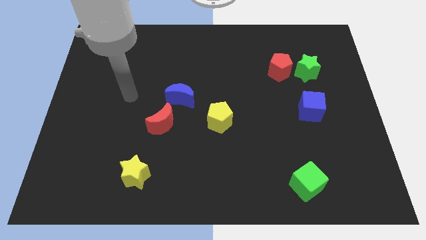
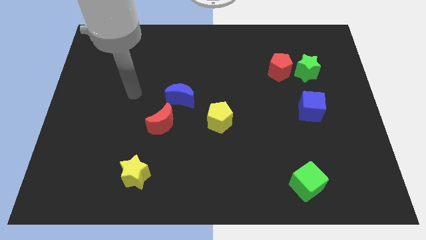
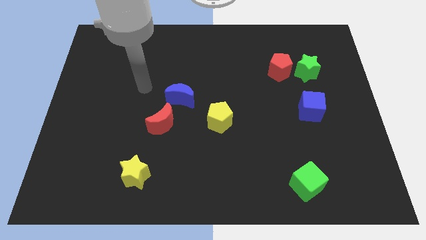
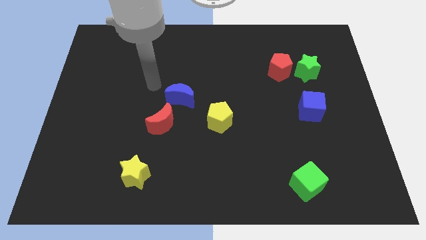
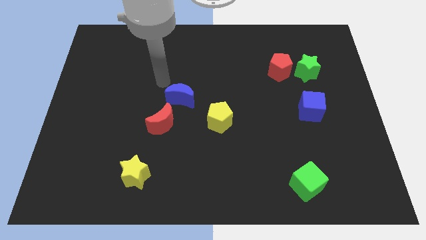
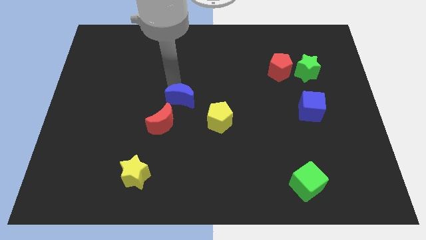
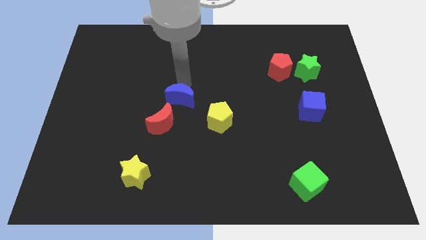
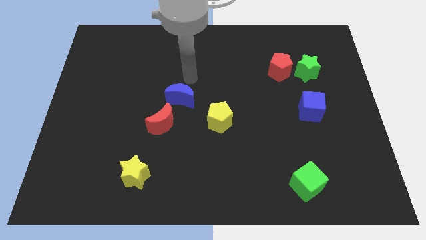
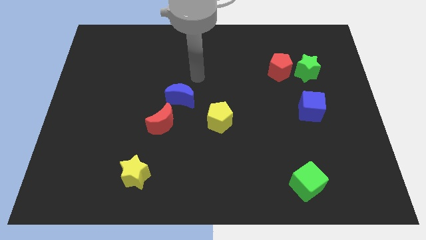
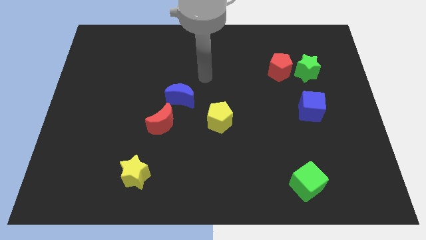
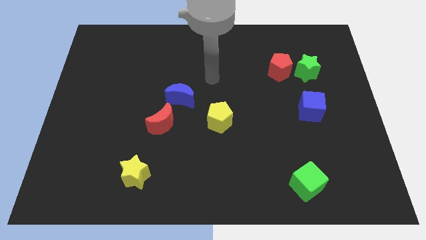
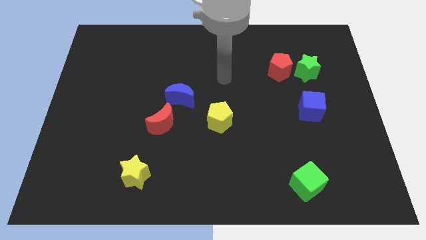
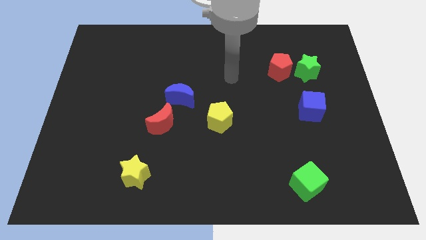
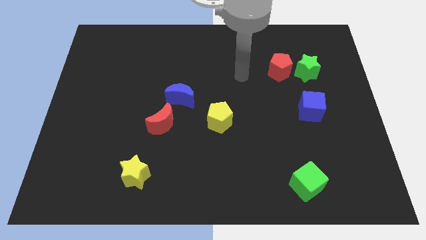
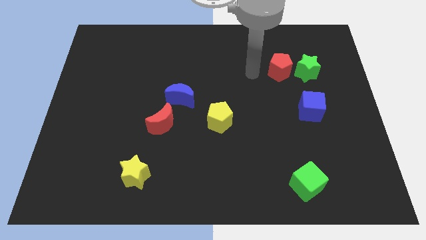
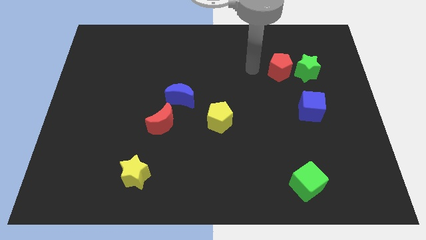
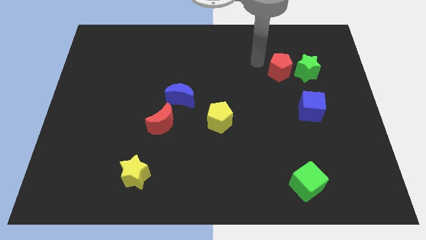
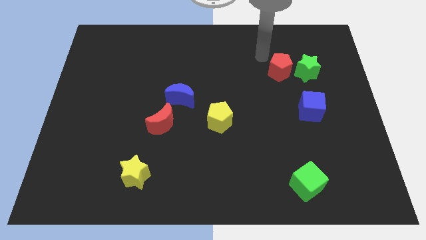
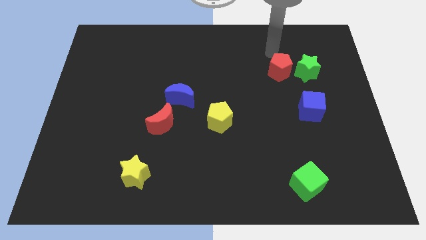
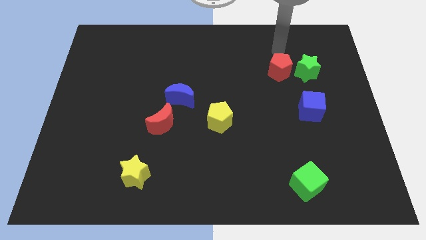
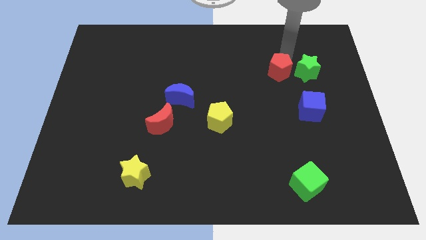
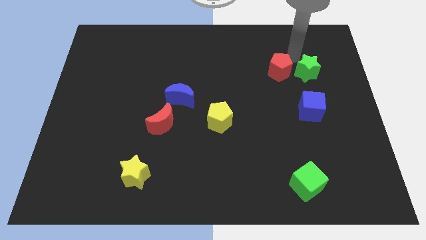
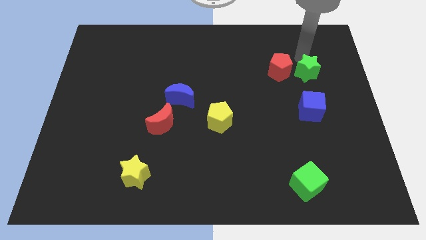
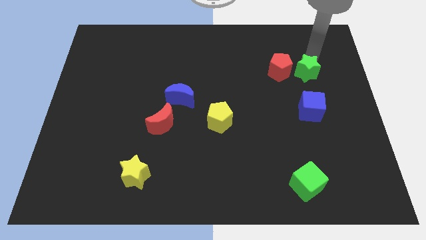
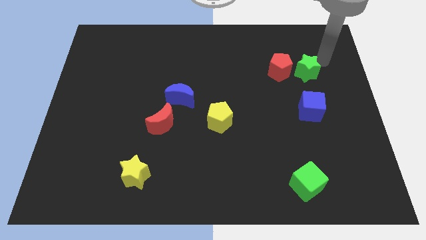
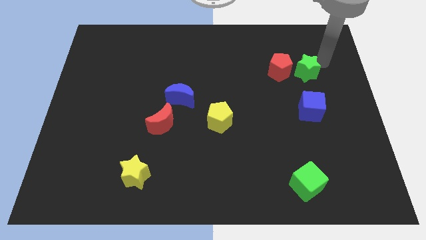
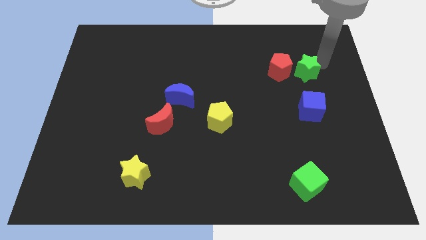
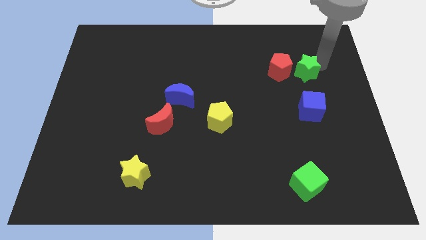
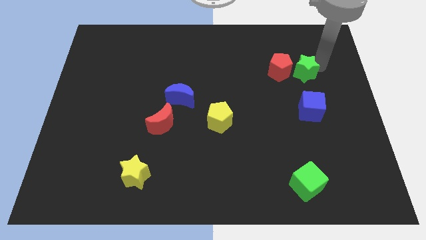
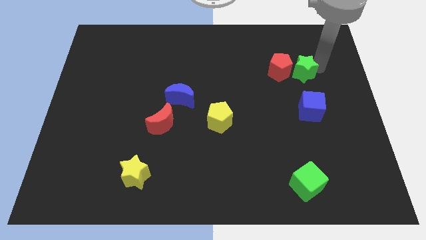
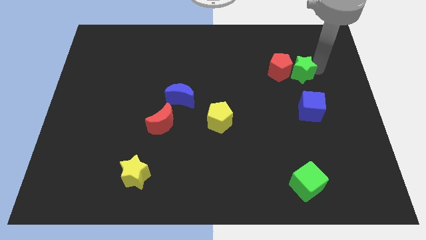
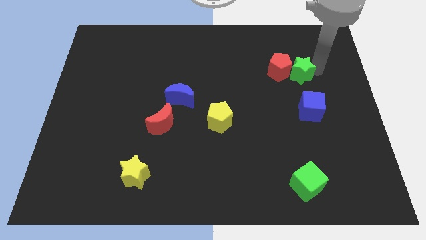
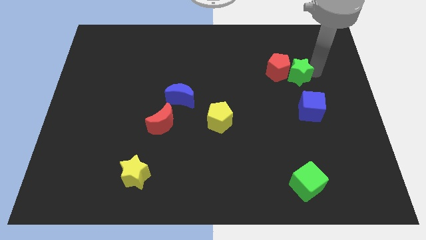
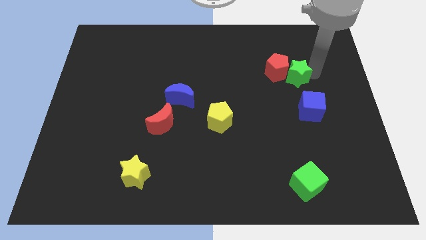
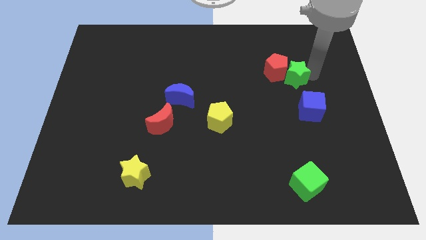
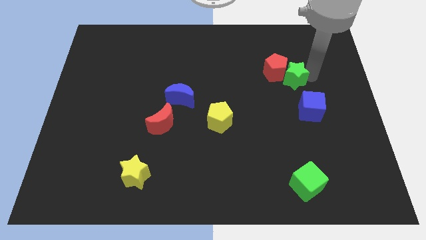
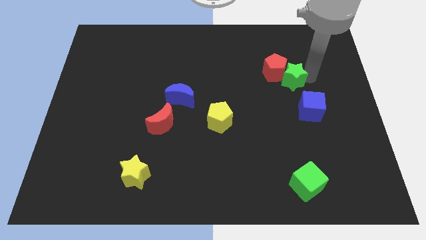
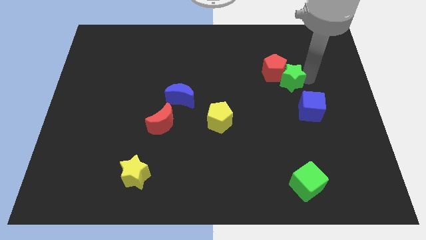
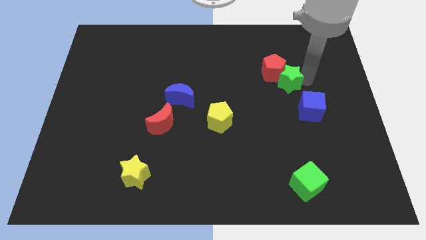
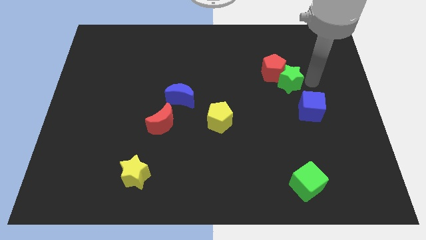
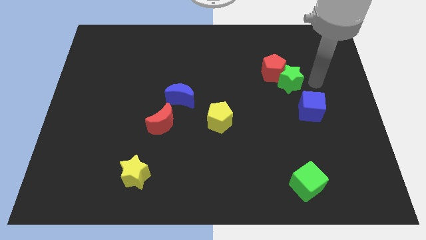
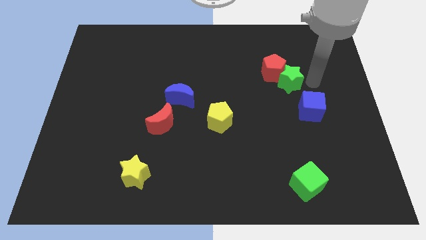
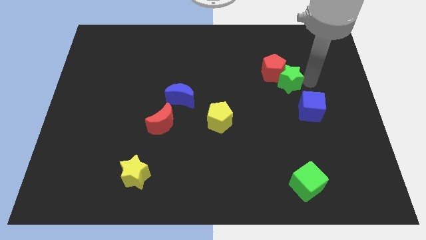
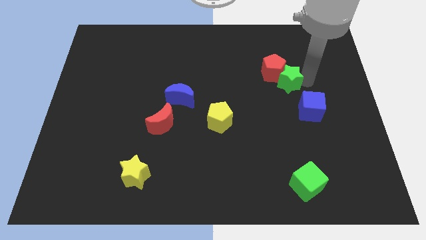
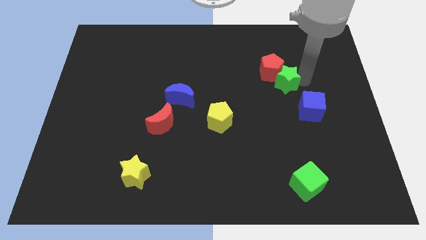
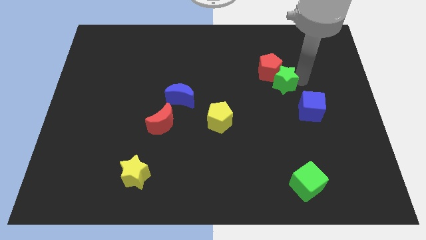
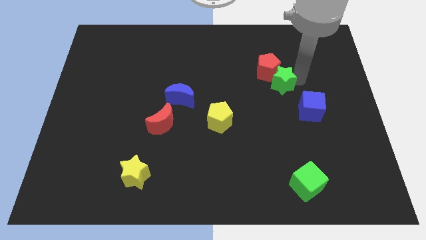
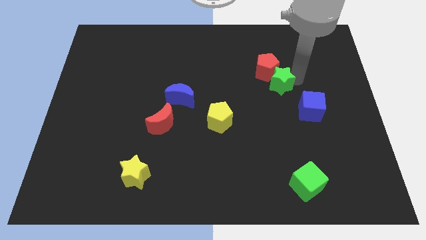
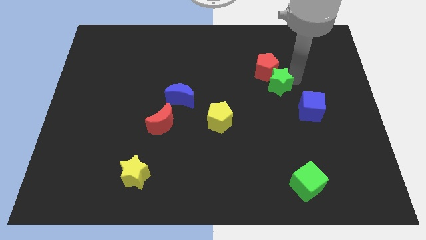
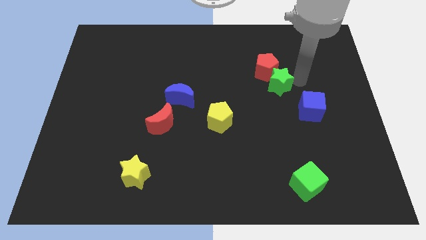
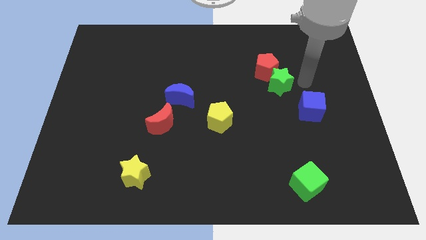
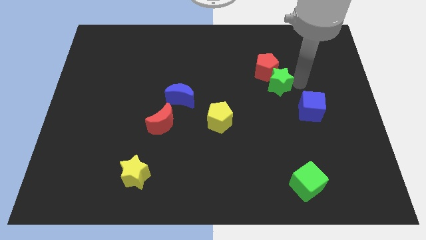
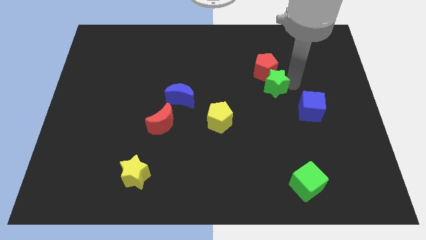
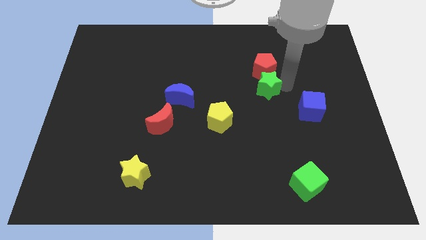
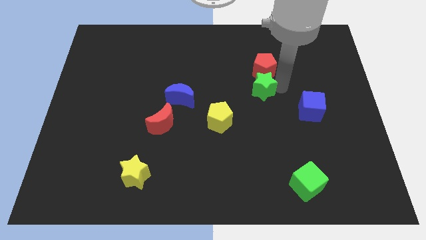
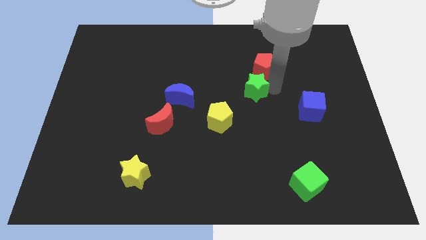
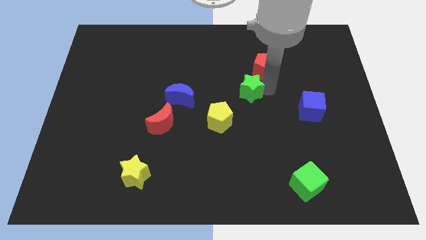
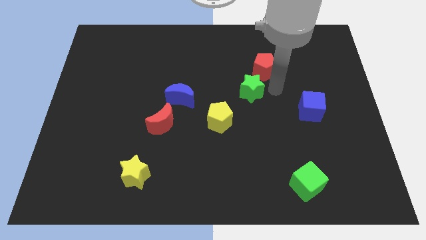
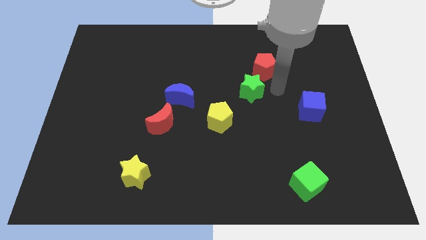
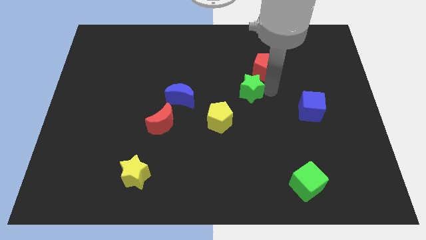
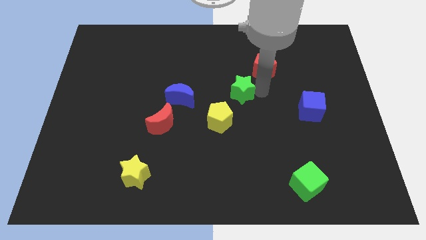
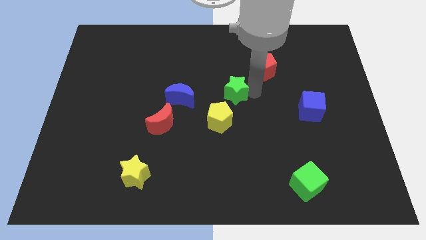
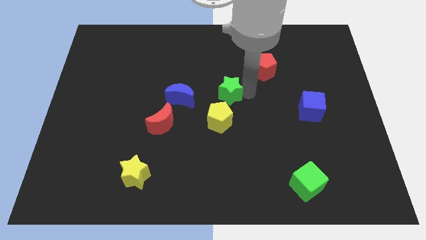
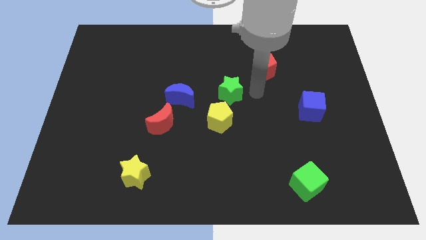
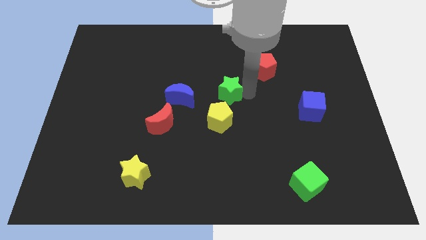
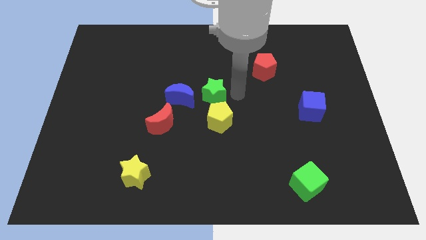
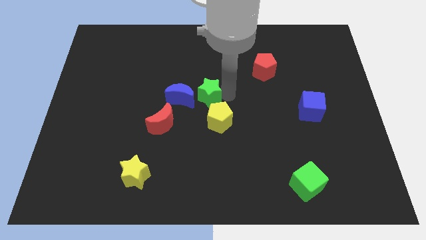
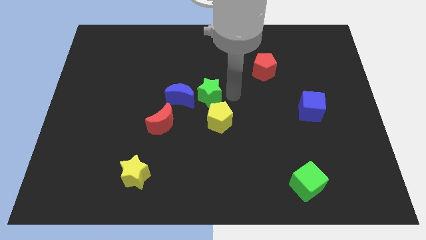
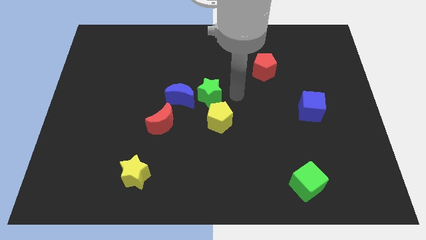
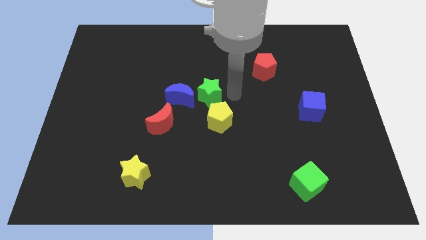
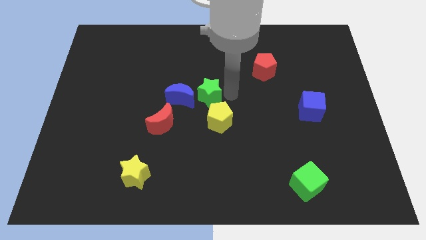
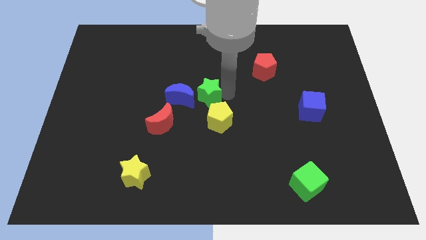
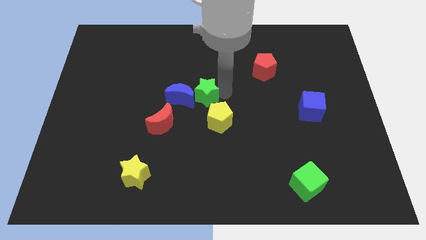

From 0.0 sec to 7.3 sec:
move the green star towards the blue moon
